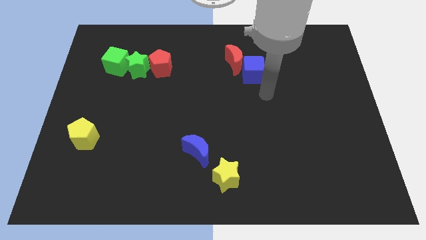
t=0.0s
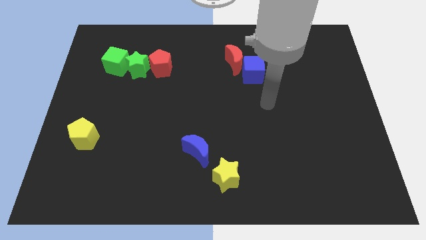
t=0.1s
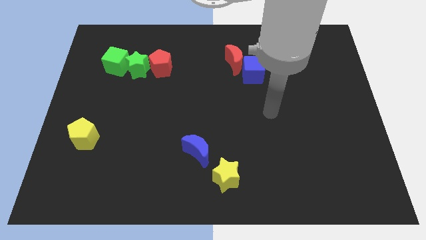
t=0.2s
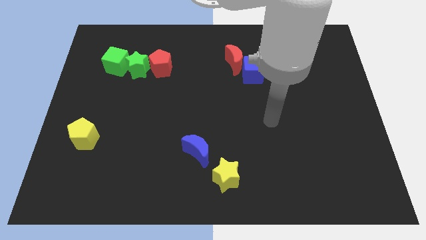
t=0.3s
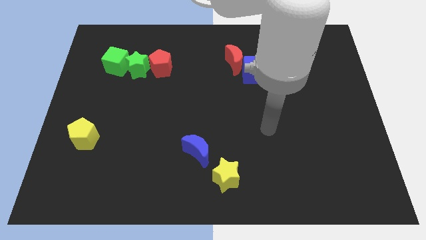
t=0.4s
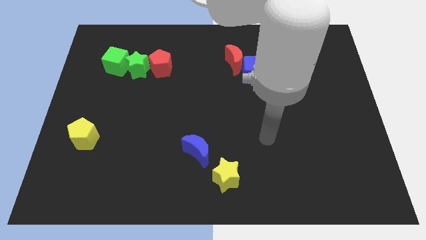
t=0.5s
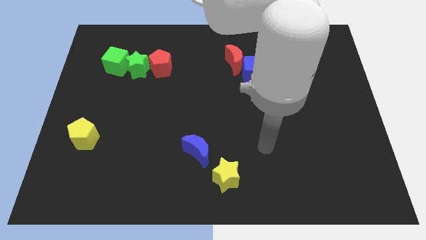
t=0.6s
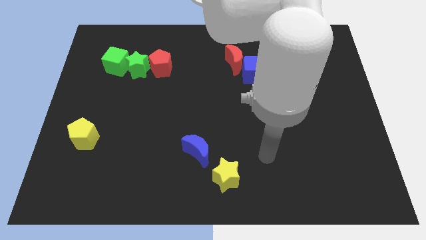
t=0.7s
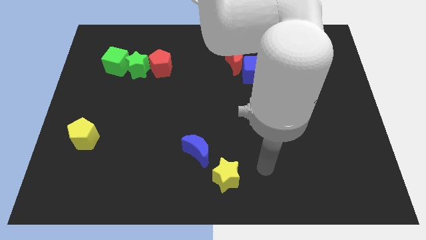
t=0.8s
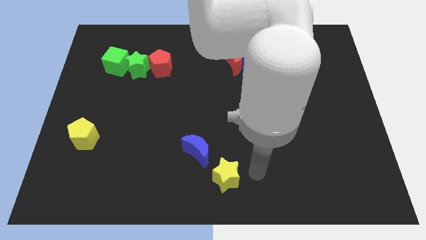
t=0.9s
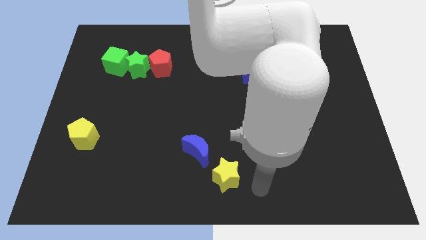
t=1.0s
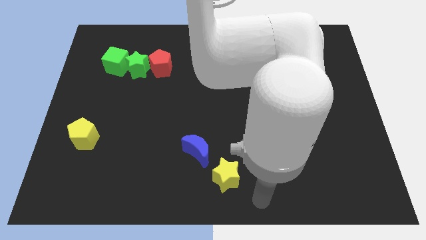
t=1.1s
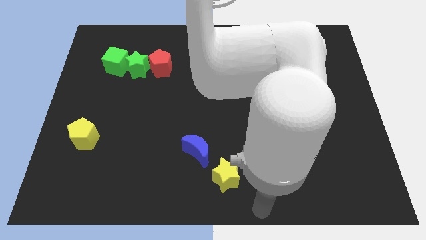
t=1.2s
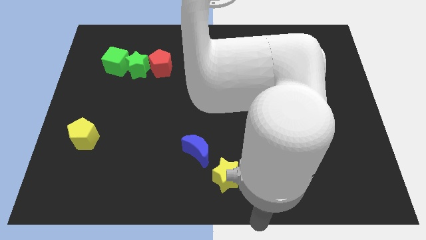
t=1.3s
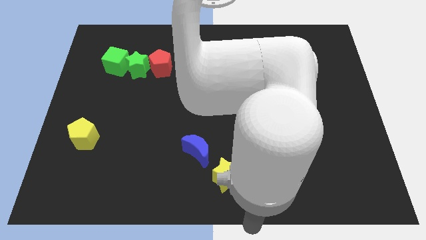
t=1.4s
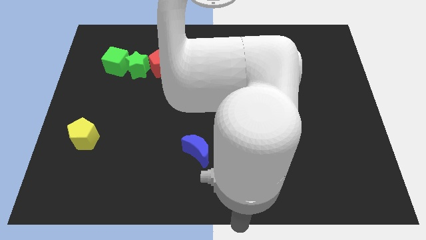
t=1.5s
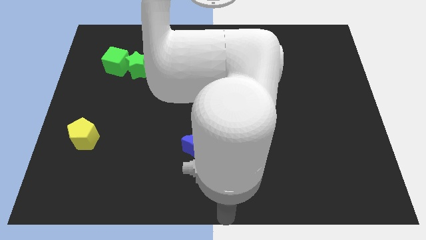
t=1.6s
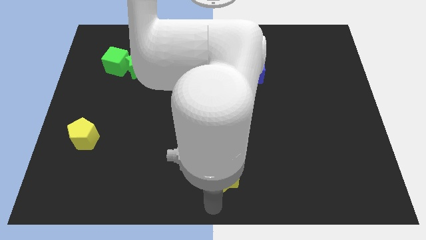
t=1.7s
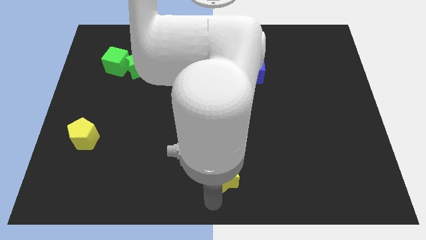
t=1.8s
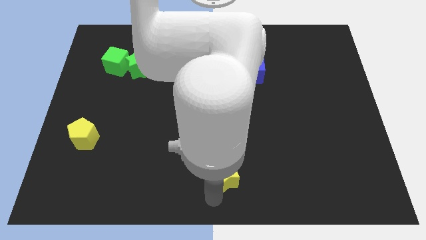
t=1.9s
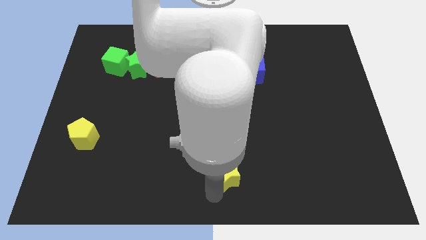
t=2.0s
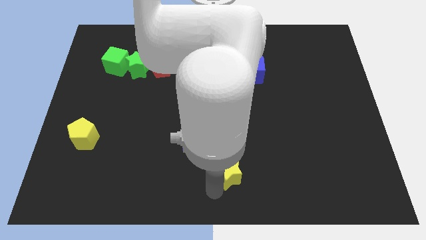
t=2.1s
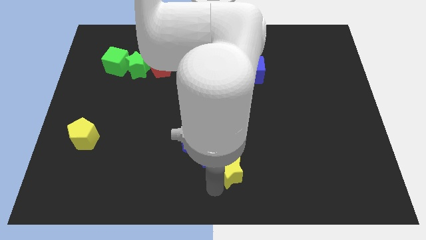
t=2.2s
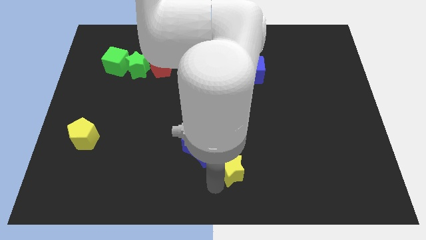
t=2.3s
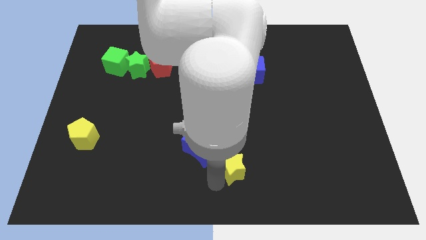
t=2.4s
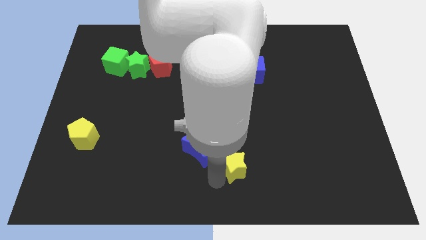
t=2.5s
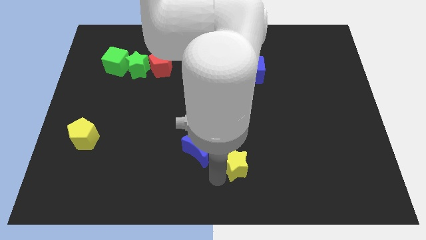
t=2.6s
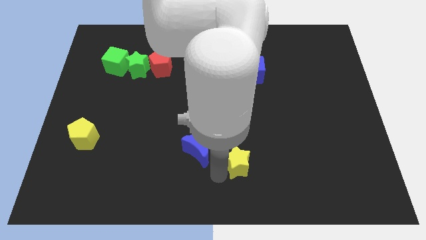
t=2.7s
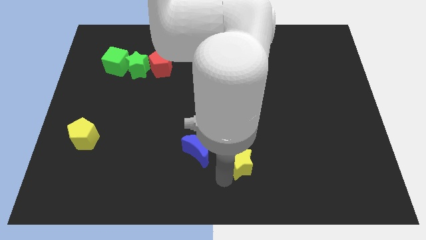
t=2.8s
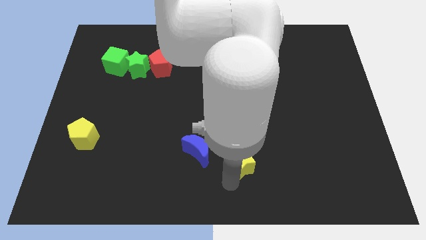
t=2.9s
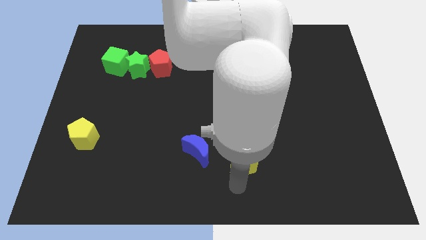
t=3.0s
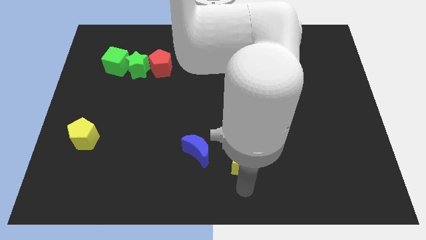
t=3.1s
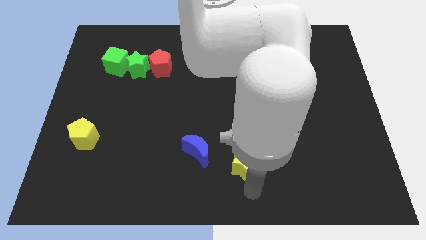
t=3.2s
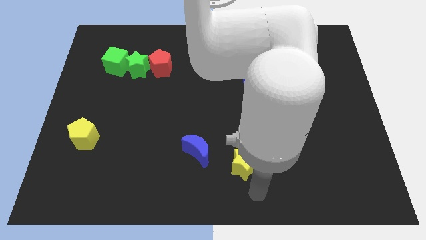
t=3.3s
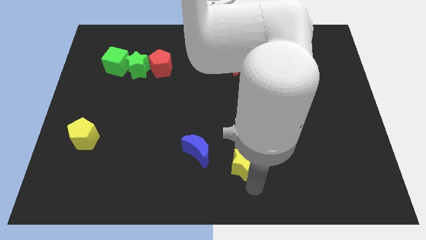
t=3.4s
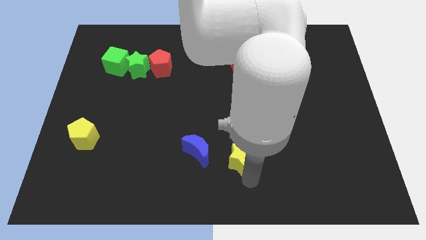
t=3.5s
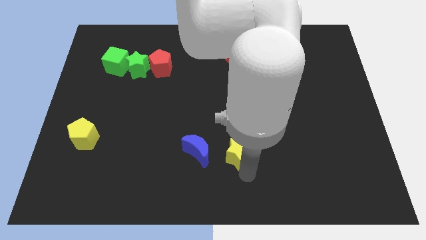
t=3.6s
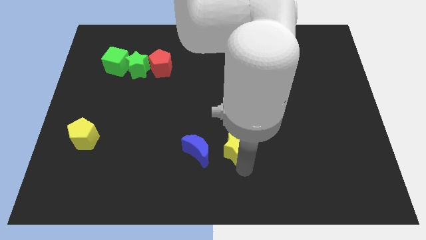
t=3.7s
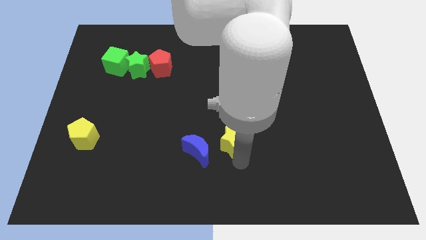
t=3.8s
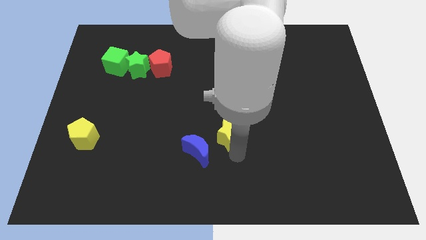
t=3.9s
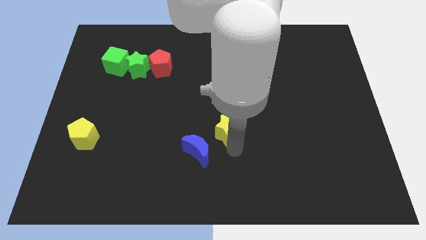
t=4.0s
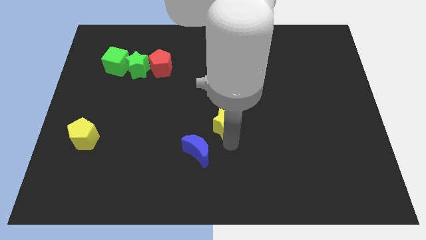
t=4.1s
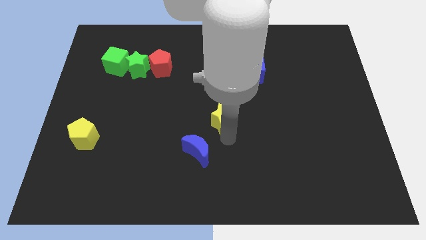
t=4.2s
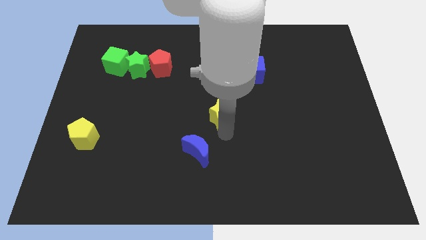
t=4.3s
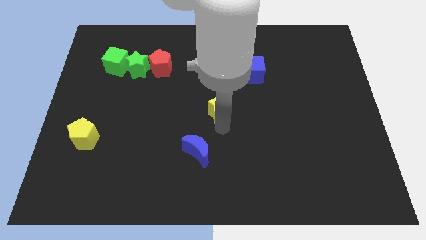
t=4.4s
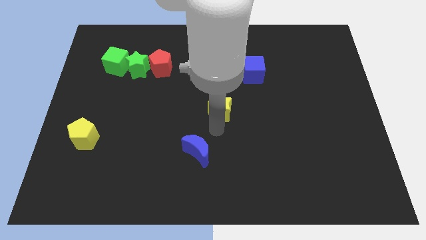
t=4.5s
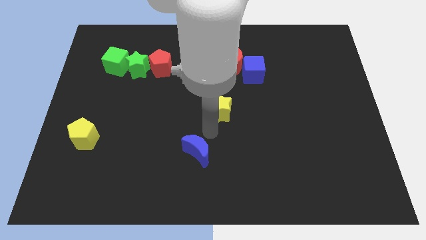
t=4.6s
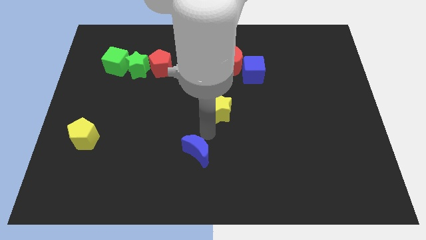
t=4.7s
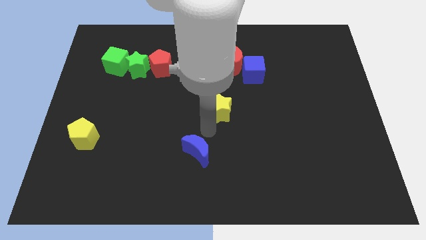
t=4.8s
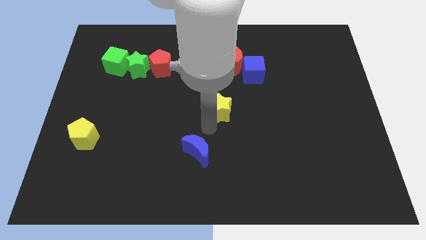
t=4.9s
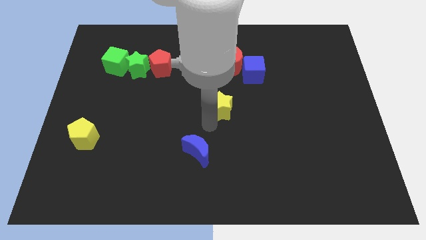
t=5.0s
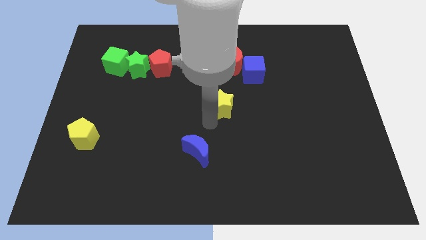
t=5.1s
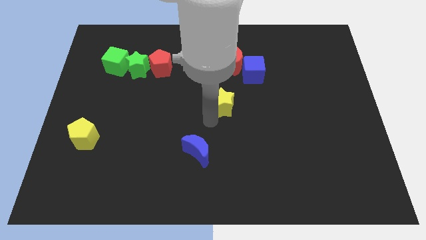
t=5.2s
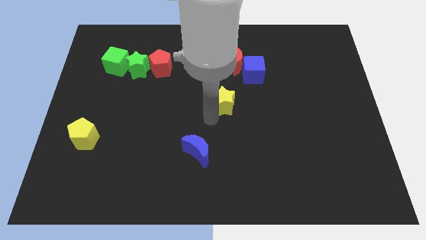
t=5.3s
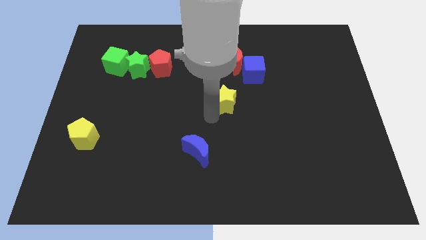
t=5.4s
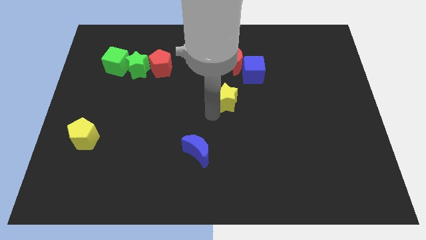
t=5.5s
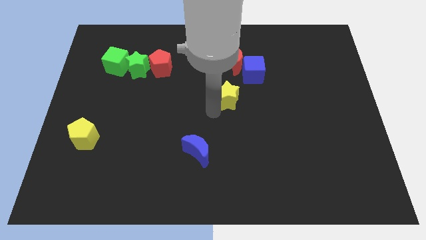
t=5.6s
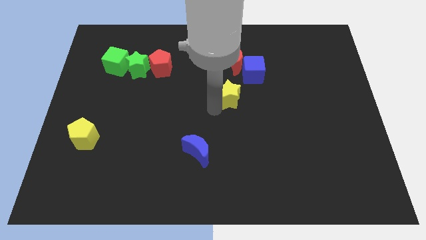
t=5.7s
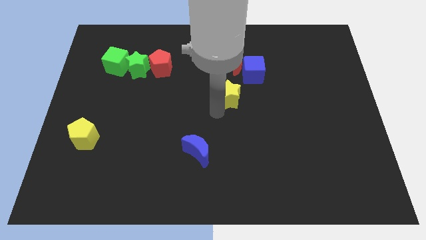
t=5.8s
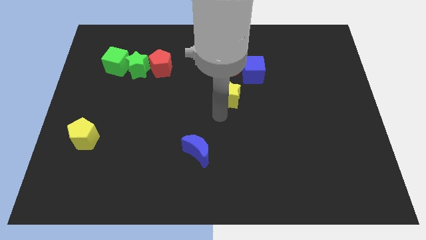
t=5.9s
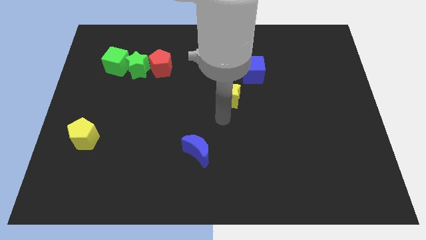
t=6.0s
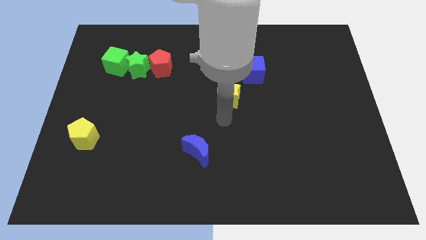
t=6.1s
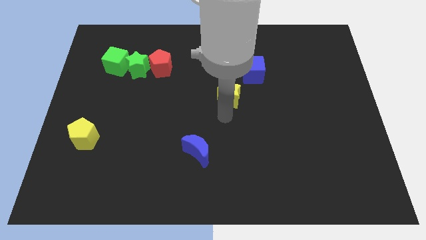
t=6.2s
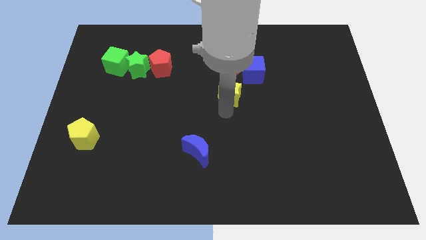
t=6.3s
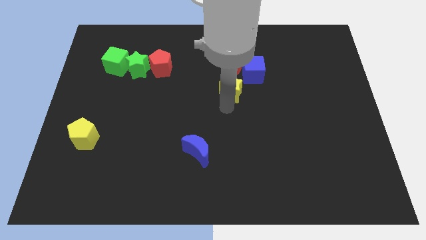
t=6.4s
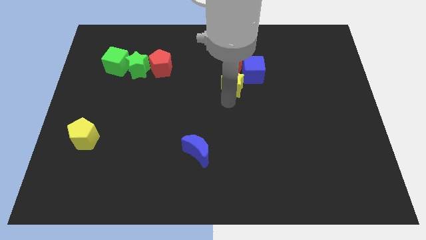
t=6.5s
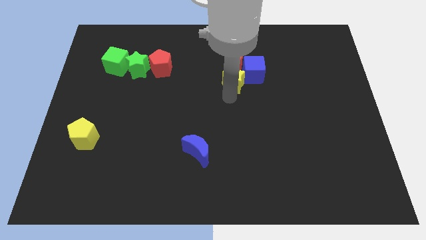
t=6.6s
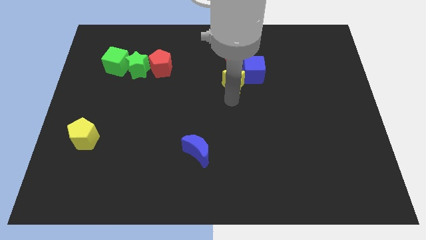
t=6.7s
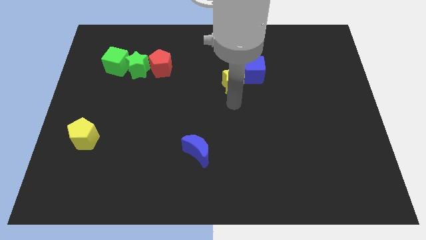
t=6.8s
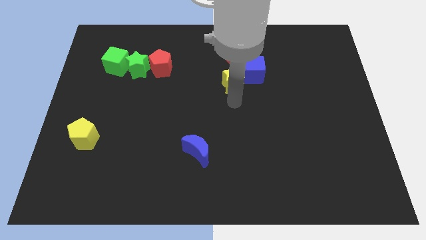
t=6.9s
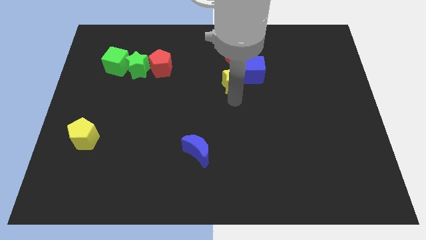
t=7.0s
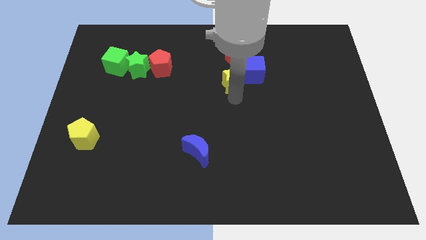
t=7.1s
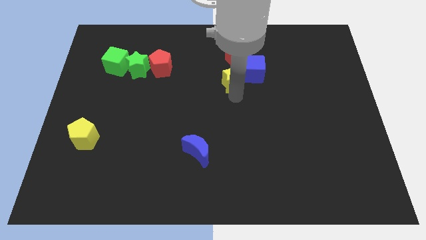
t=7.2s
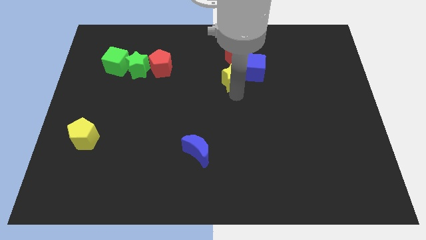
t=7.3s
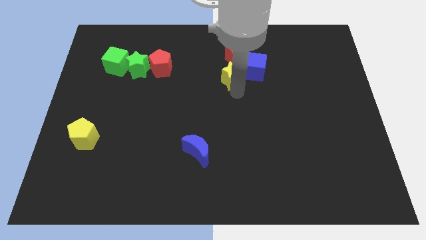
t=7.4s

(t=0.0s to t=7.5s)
push the yellow star towards the red moon

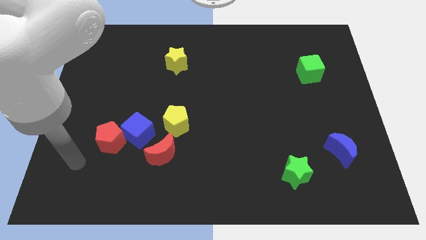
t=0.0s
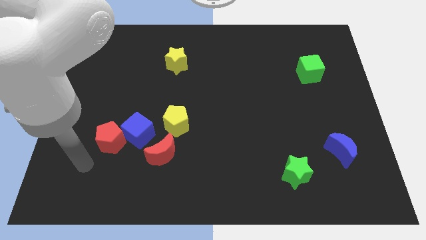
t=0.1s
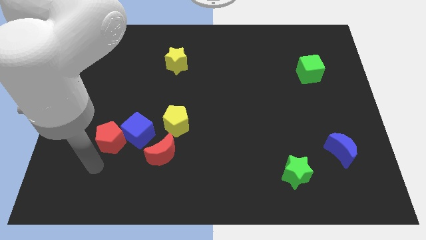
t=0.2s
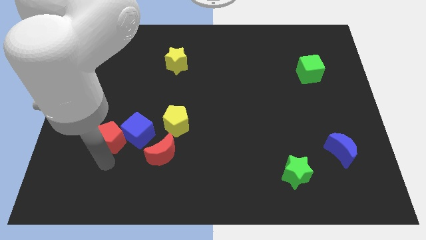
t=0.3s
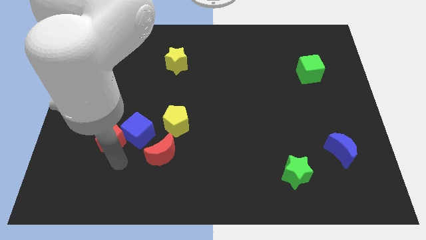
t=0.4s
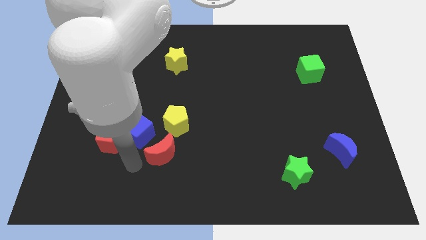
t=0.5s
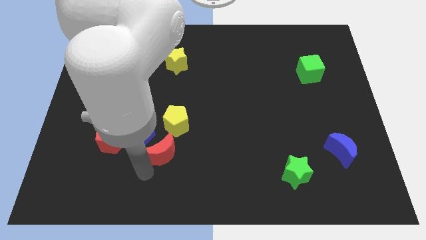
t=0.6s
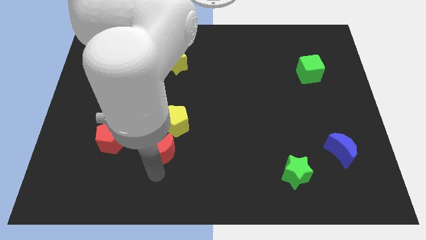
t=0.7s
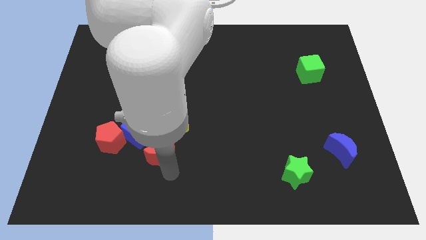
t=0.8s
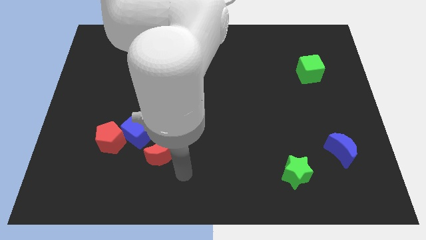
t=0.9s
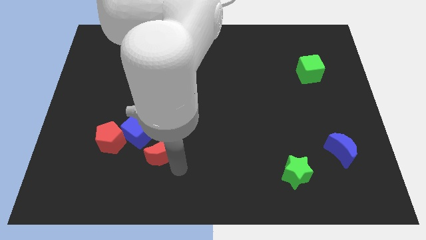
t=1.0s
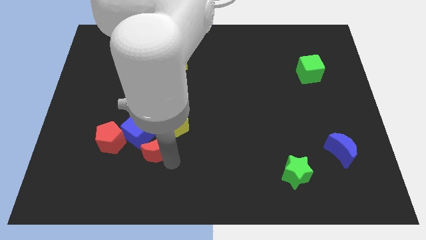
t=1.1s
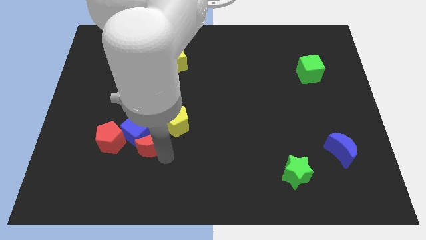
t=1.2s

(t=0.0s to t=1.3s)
slide the red moon next to the blue cube
